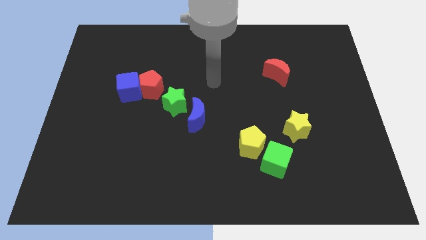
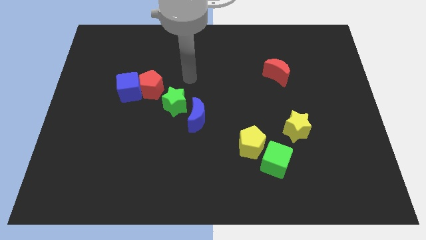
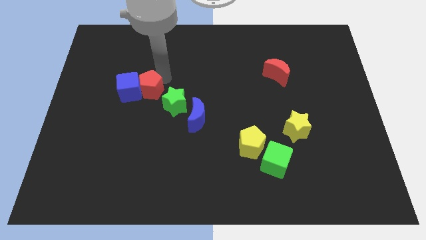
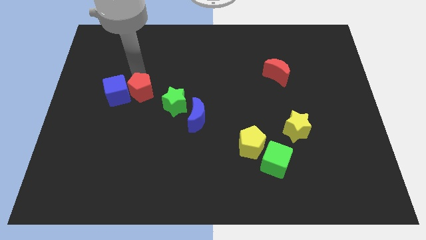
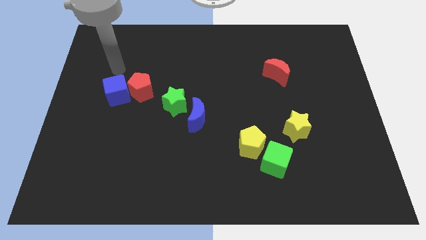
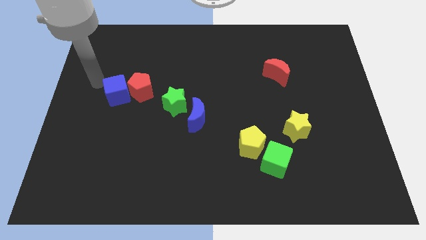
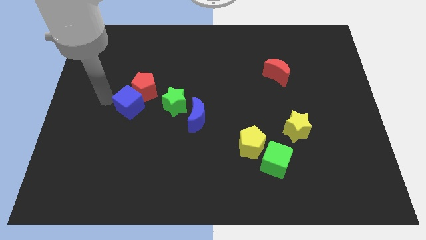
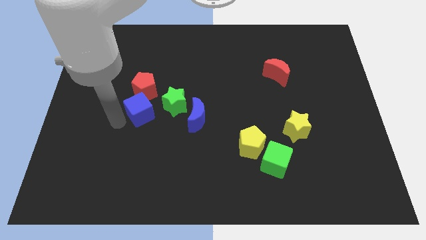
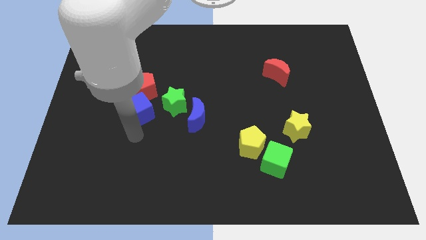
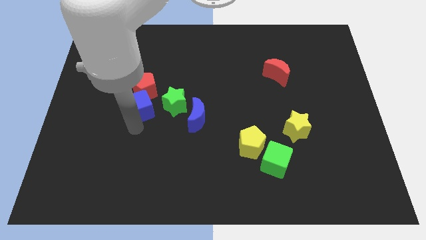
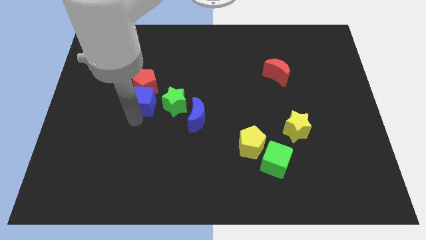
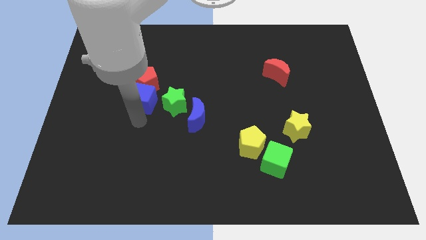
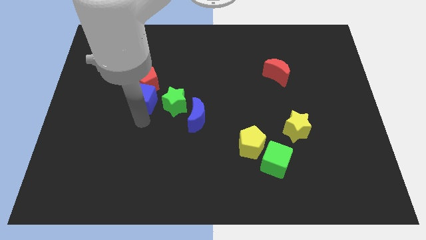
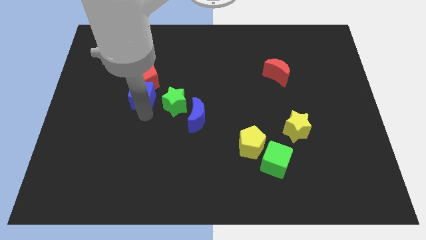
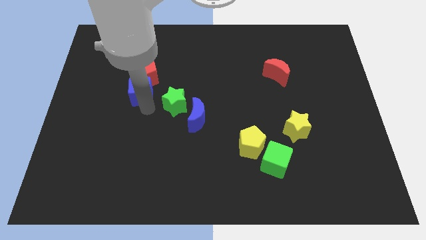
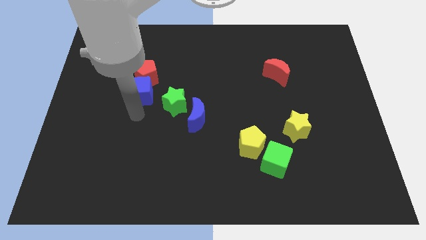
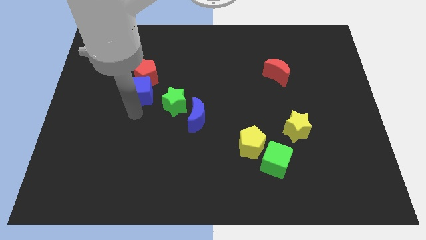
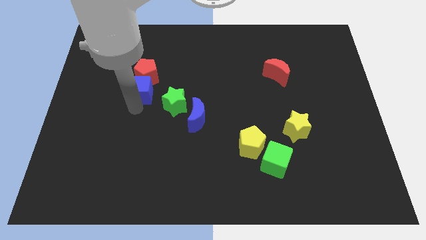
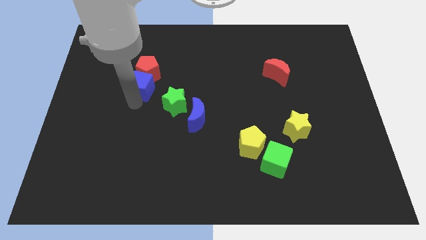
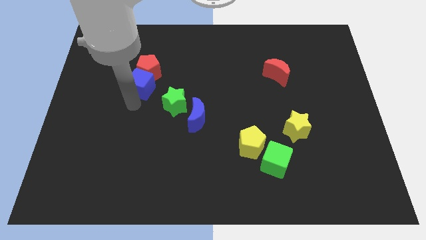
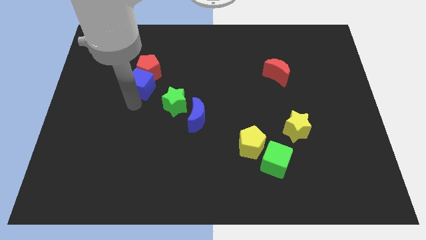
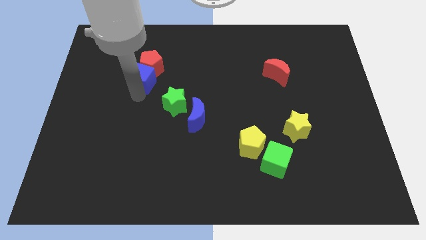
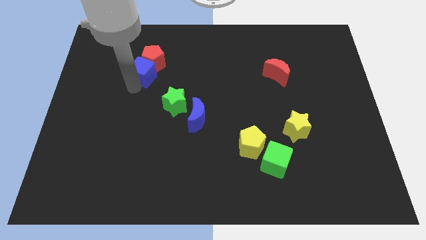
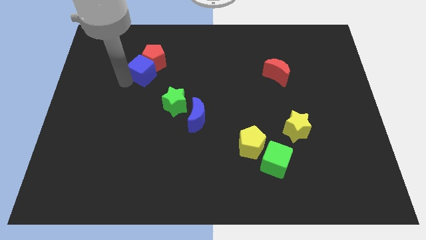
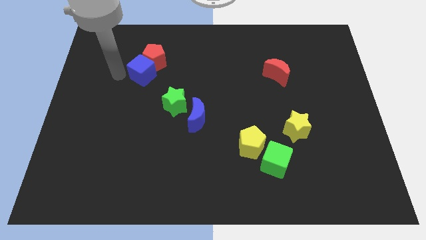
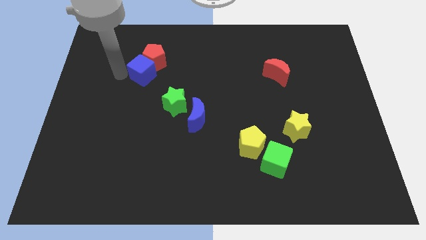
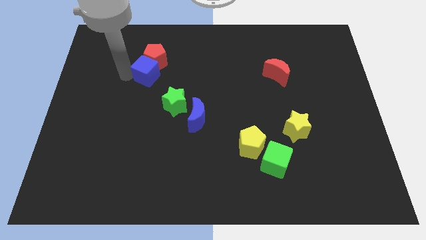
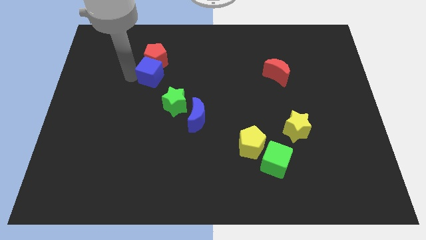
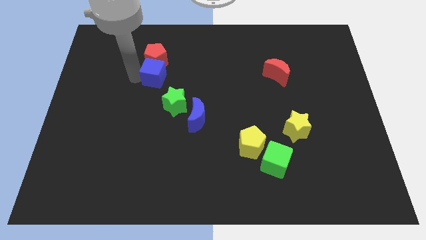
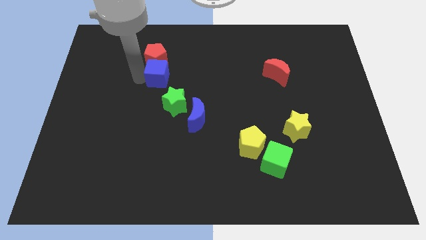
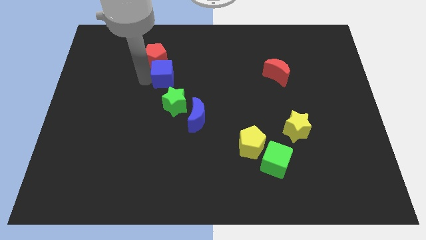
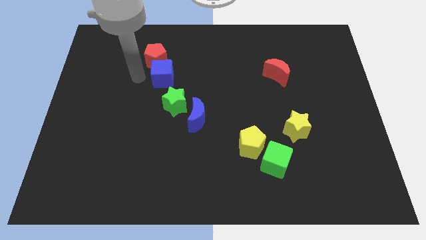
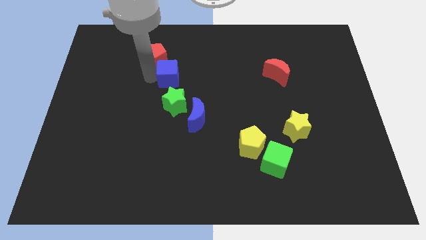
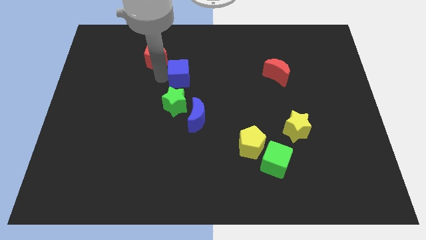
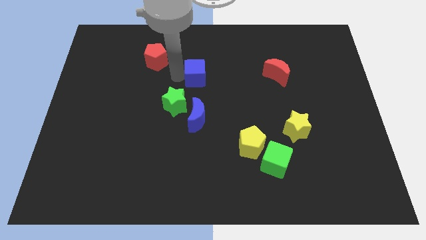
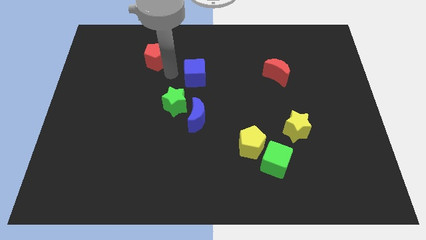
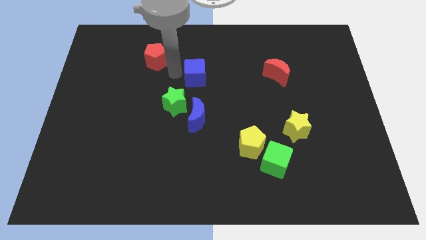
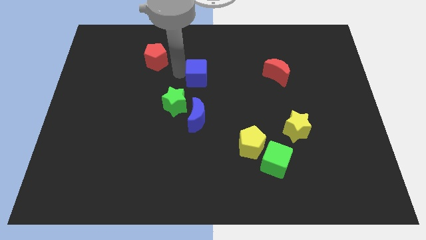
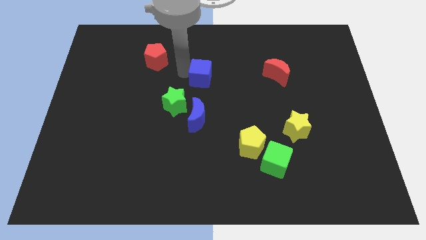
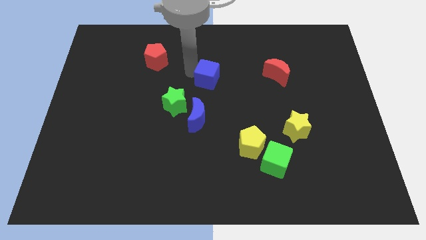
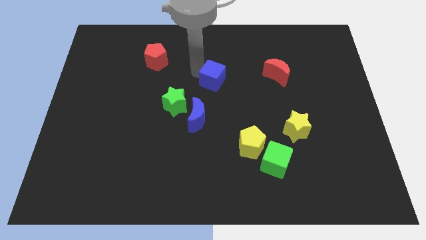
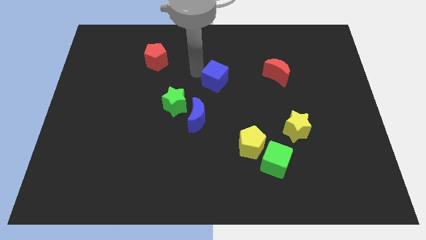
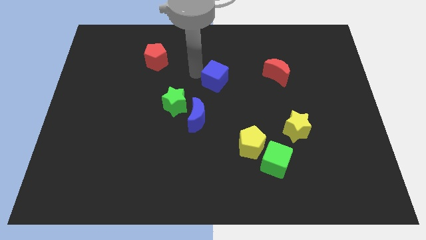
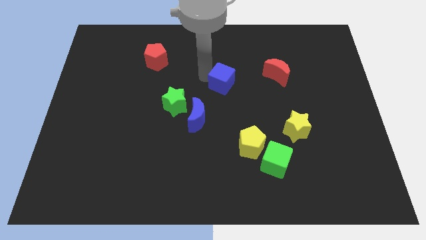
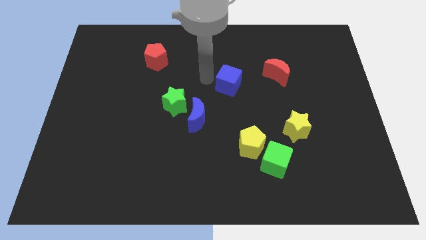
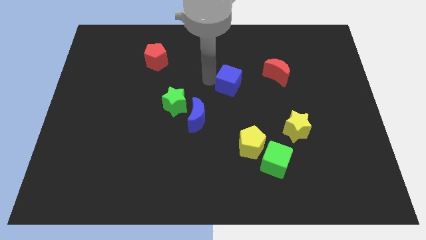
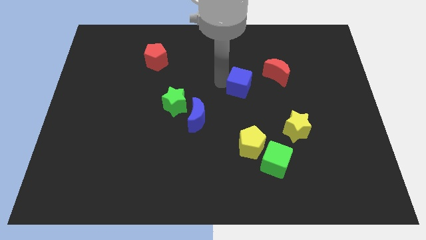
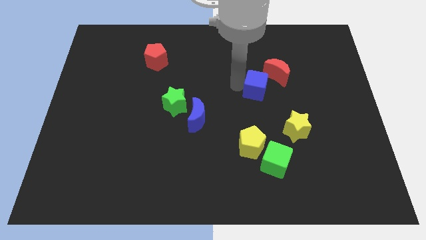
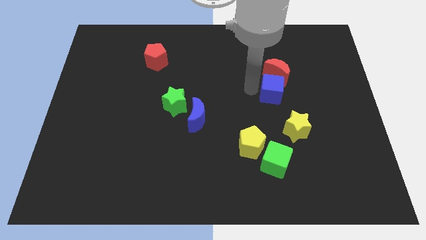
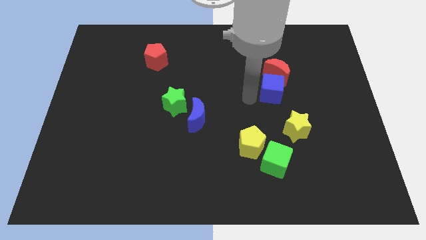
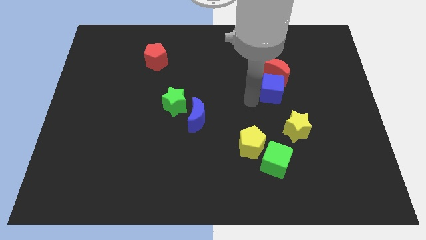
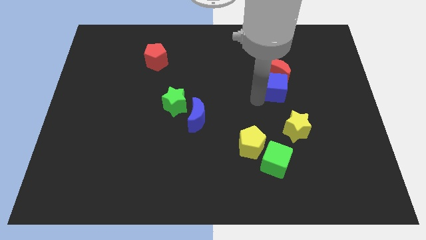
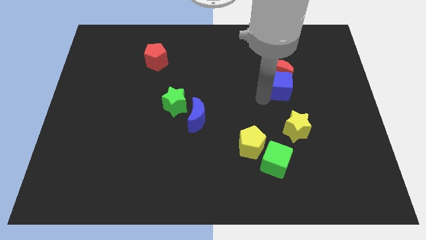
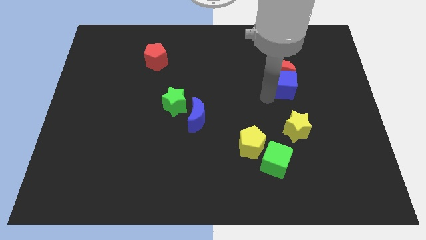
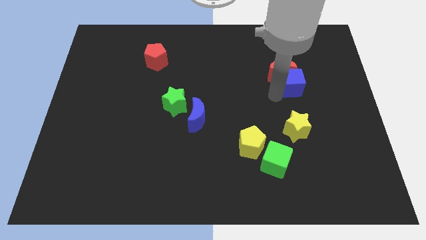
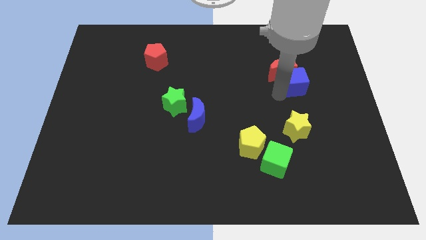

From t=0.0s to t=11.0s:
slide the blue cube just right of the red moon

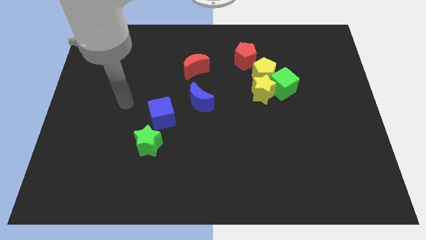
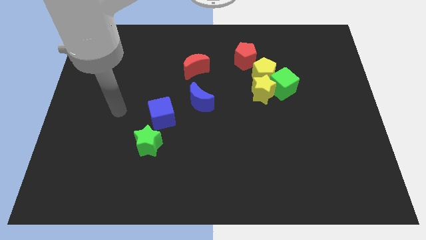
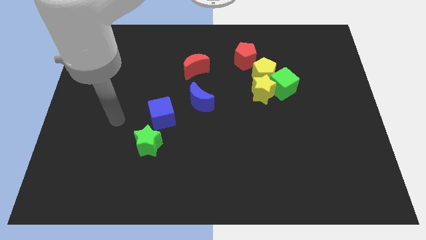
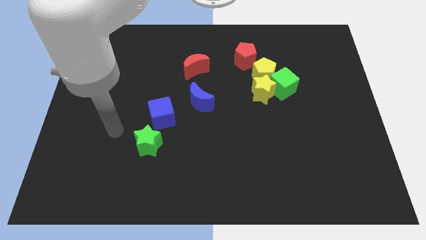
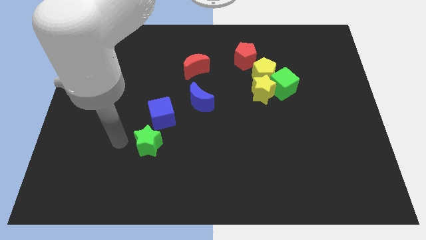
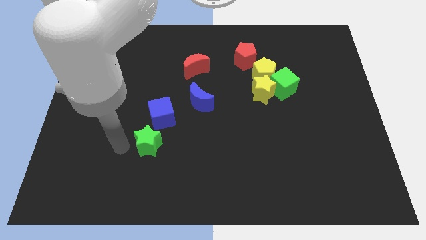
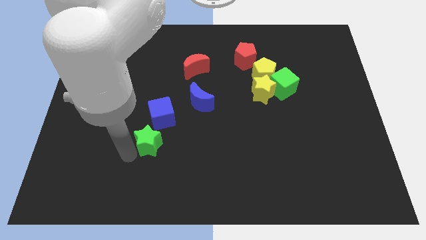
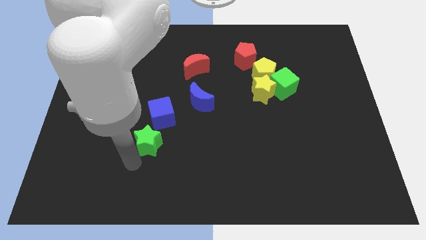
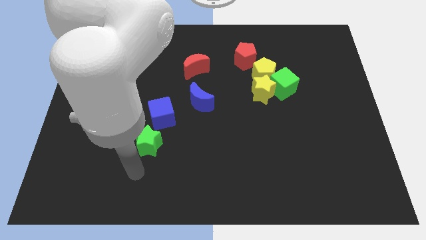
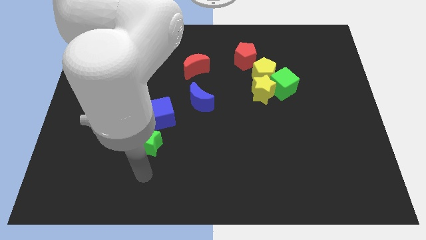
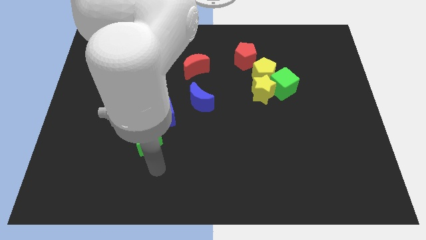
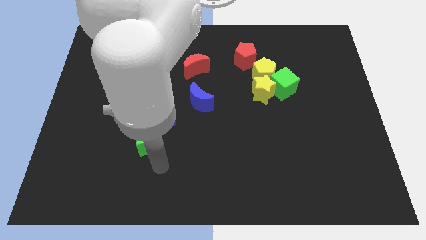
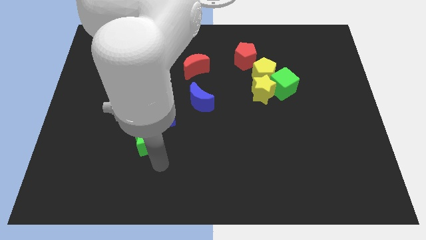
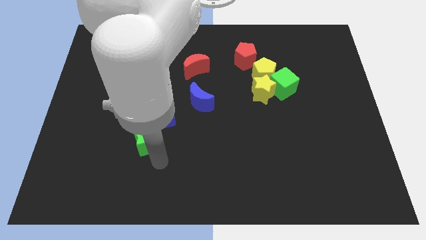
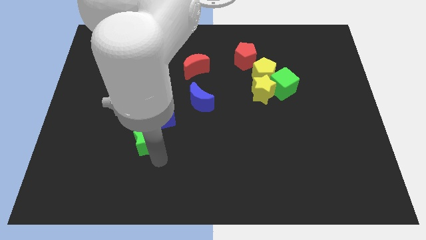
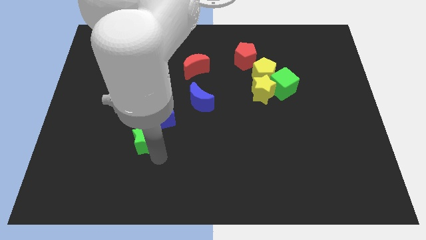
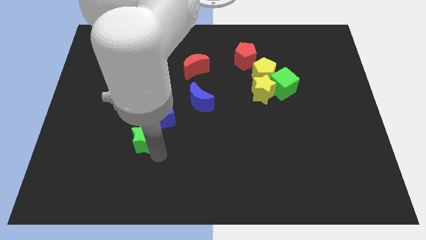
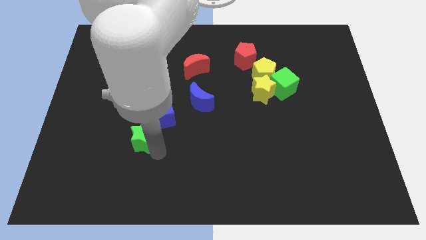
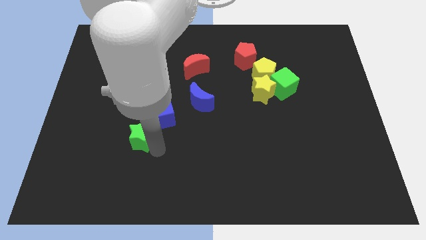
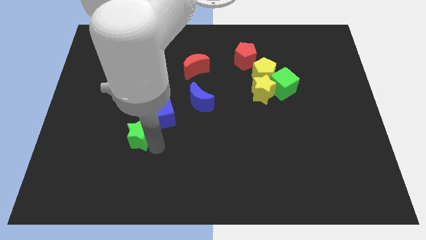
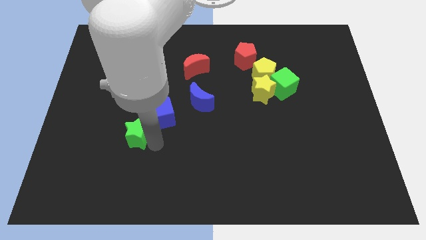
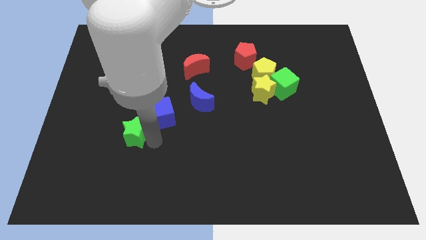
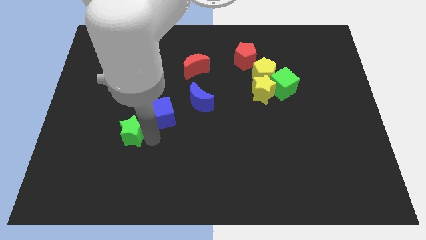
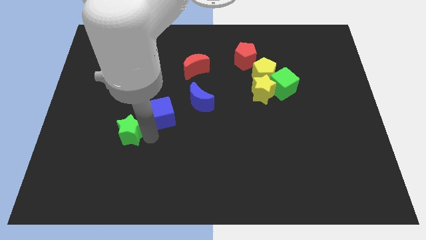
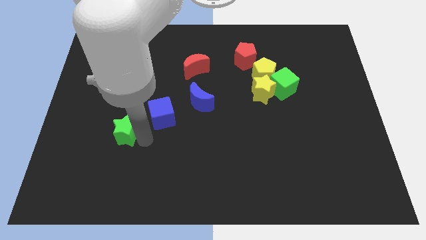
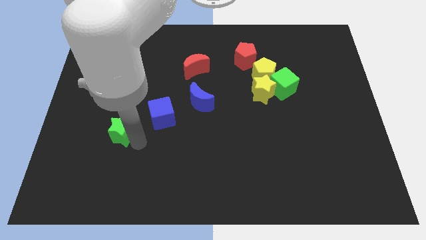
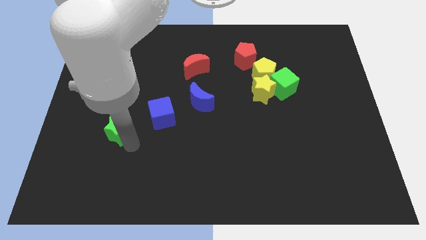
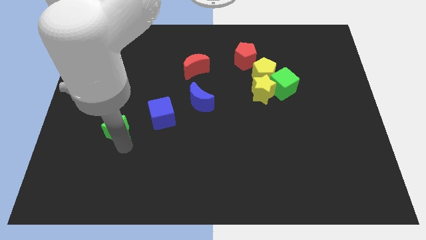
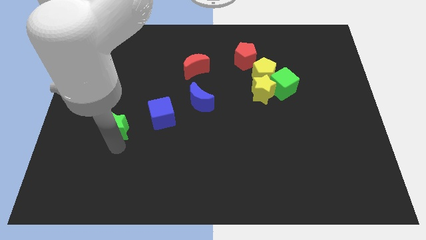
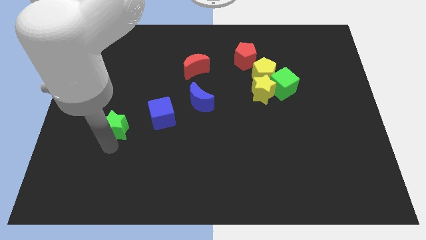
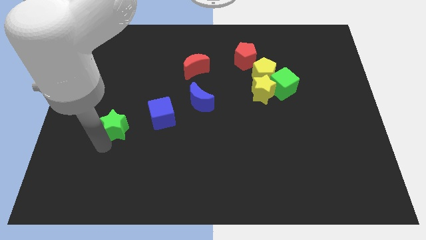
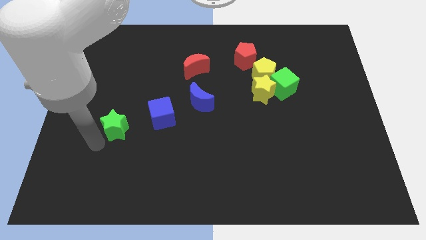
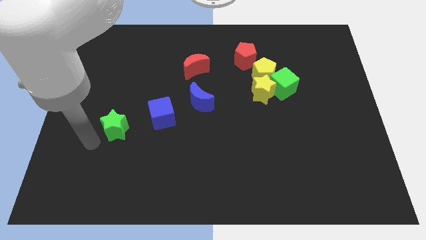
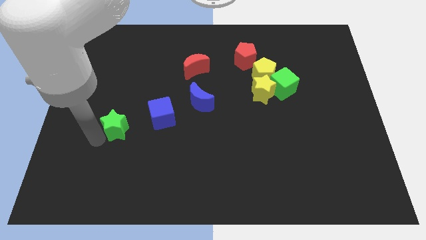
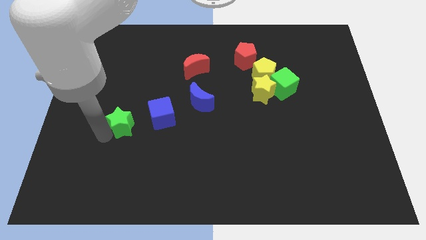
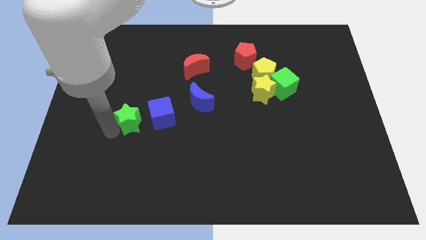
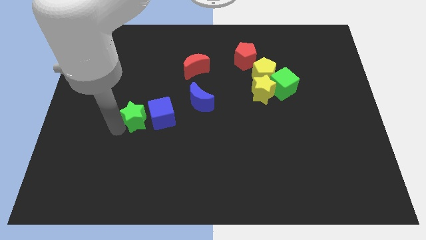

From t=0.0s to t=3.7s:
move the green star to the top left of the blue cube
